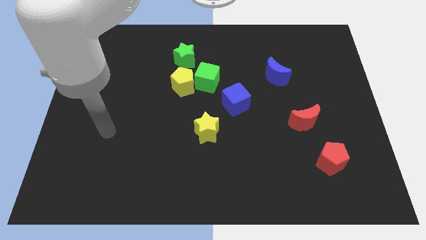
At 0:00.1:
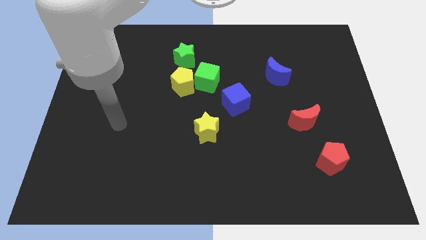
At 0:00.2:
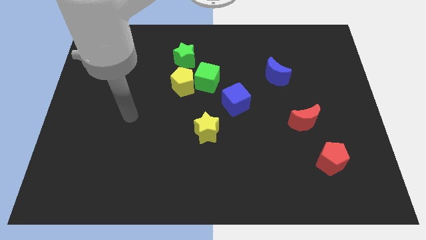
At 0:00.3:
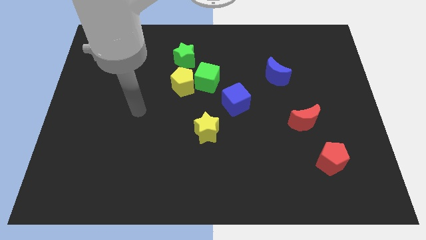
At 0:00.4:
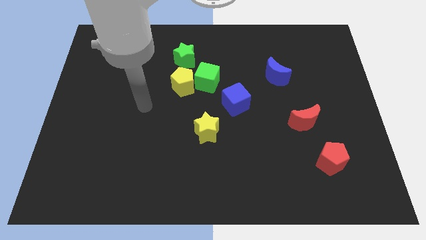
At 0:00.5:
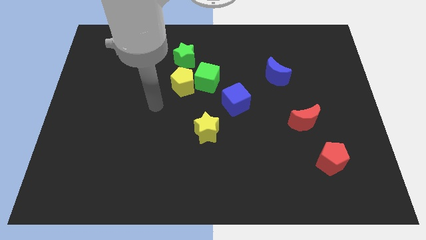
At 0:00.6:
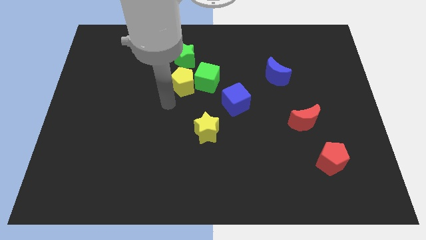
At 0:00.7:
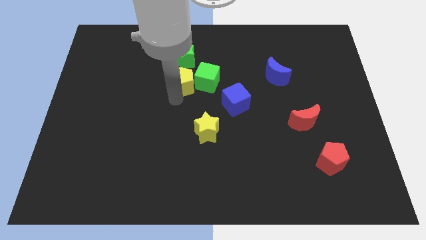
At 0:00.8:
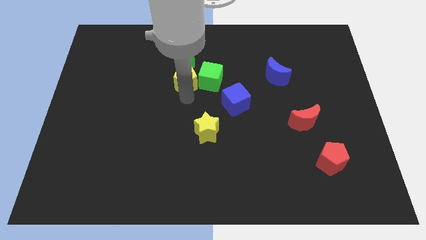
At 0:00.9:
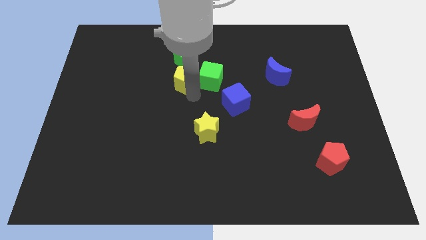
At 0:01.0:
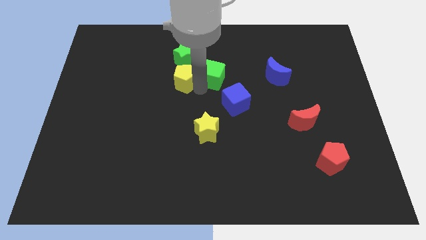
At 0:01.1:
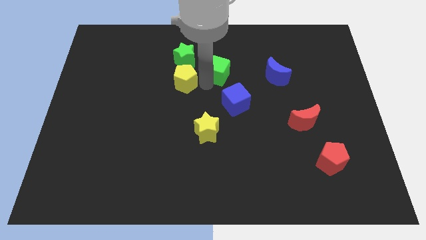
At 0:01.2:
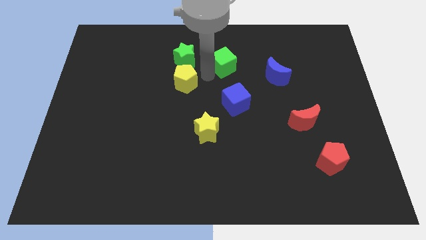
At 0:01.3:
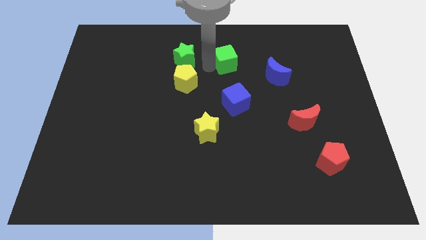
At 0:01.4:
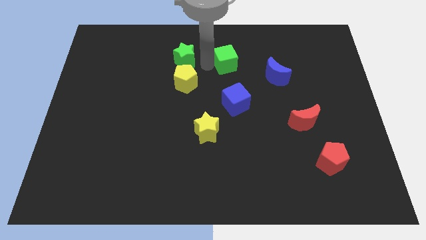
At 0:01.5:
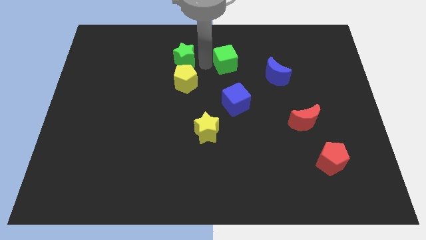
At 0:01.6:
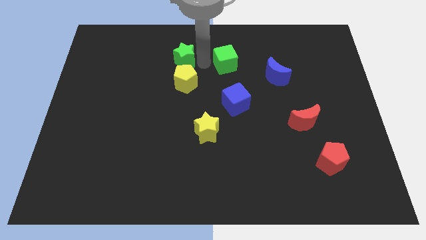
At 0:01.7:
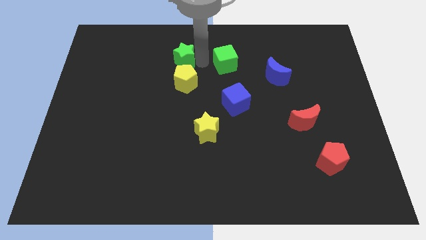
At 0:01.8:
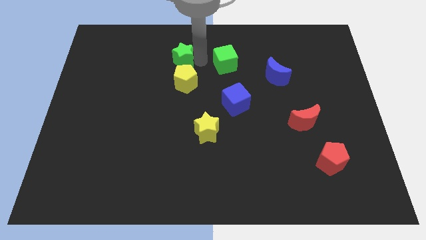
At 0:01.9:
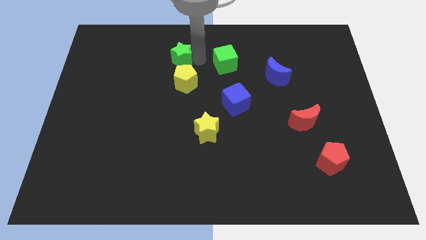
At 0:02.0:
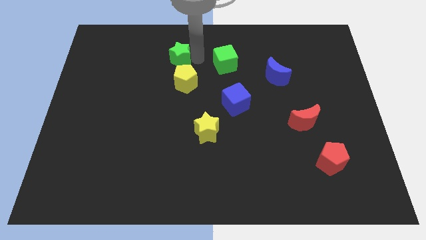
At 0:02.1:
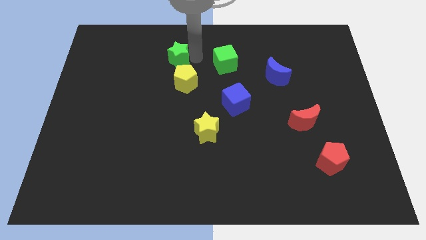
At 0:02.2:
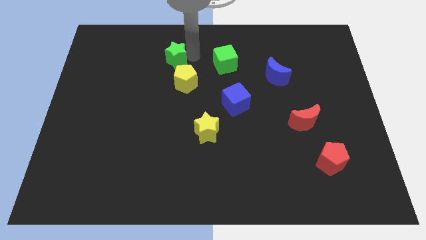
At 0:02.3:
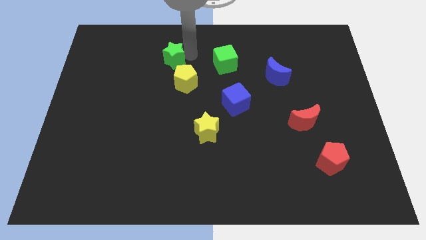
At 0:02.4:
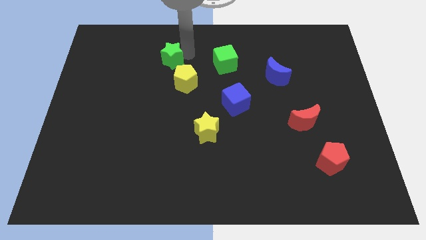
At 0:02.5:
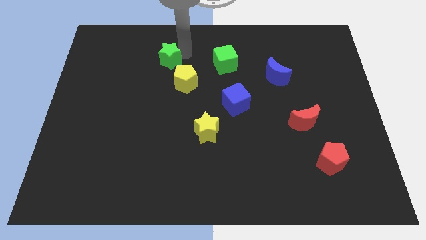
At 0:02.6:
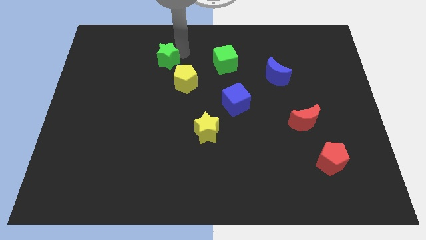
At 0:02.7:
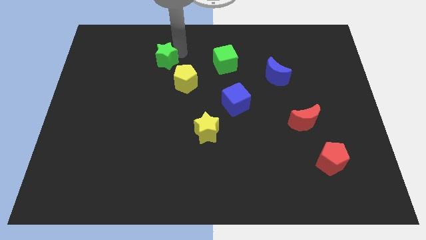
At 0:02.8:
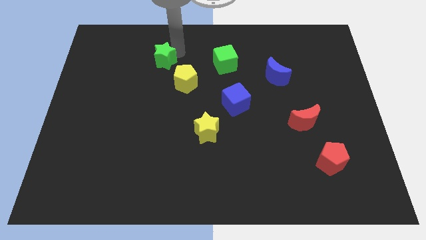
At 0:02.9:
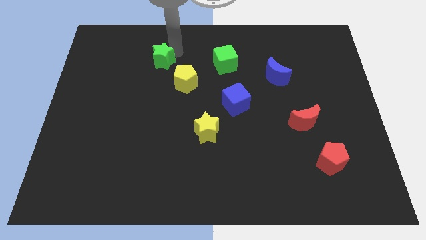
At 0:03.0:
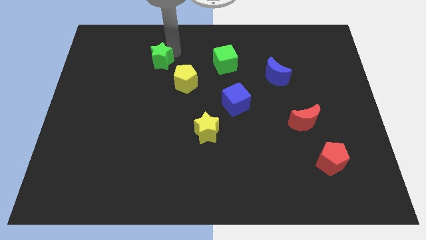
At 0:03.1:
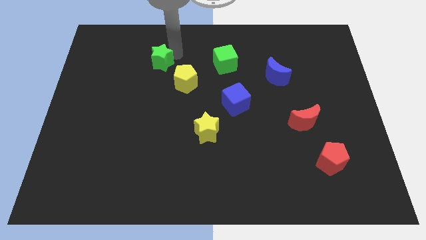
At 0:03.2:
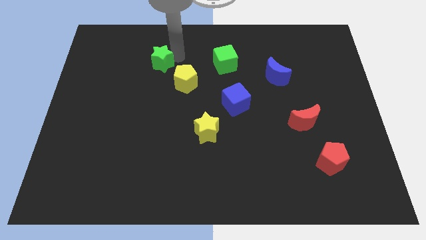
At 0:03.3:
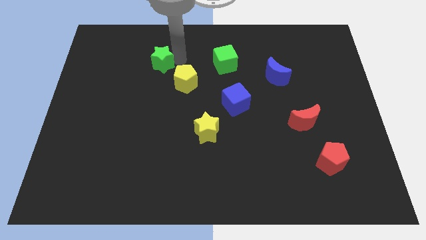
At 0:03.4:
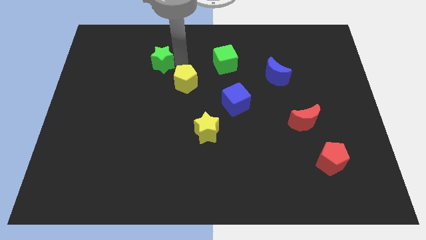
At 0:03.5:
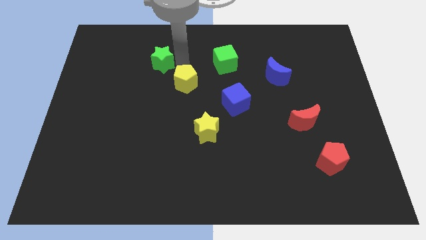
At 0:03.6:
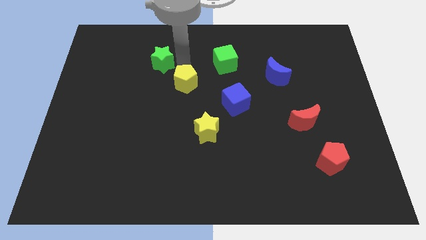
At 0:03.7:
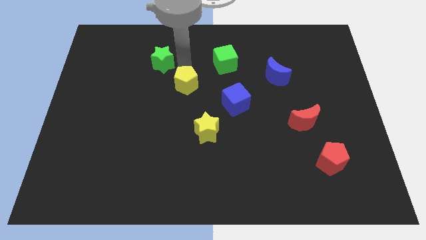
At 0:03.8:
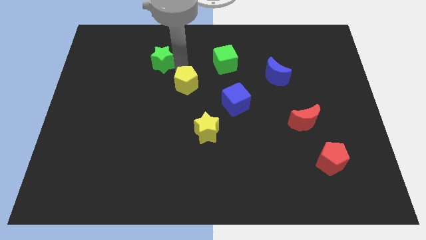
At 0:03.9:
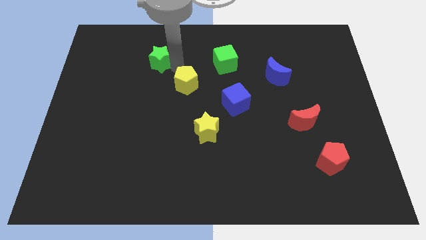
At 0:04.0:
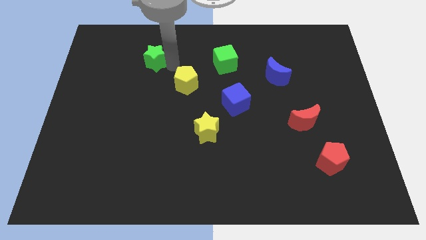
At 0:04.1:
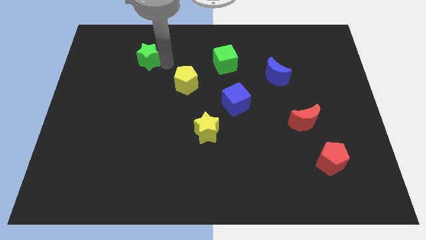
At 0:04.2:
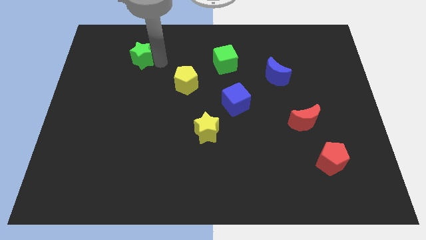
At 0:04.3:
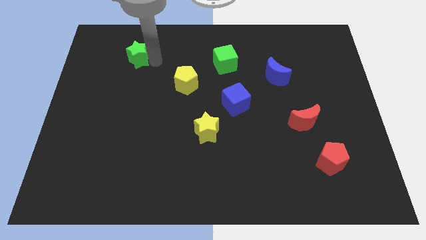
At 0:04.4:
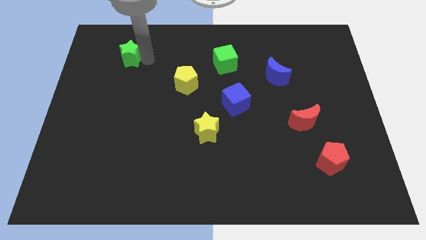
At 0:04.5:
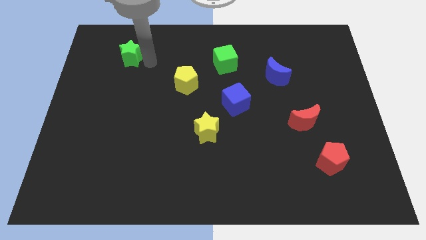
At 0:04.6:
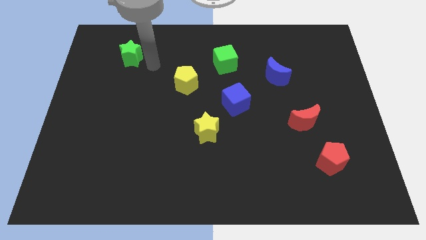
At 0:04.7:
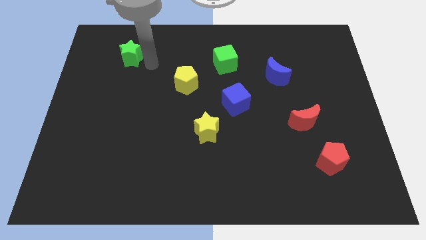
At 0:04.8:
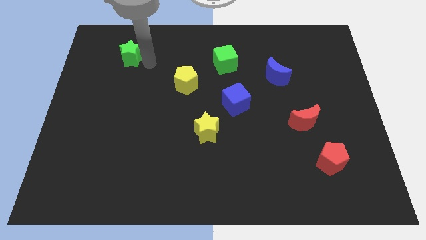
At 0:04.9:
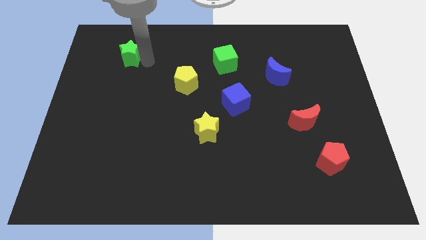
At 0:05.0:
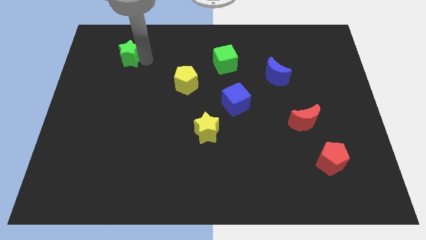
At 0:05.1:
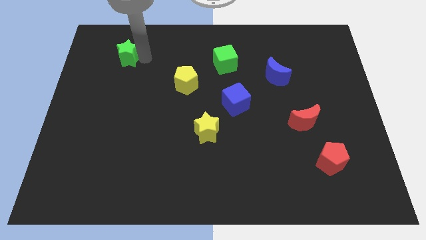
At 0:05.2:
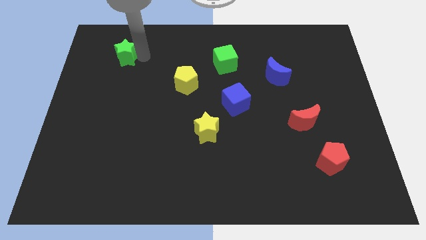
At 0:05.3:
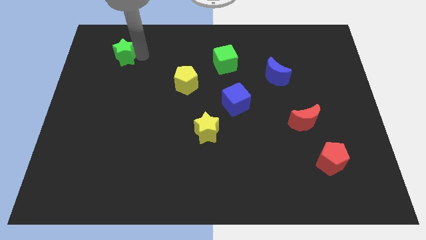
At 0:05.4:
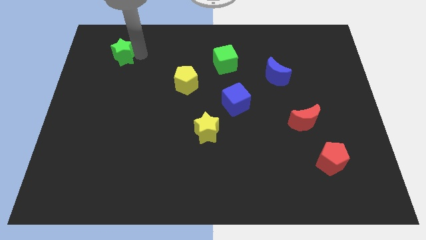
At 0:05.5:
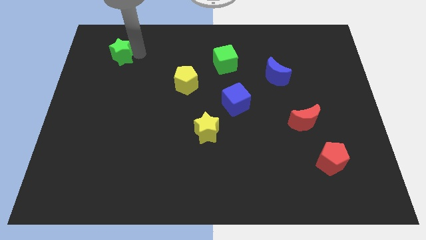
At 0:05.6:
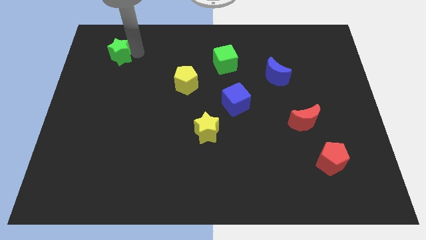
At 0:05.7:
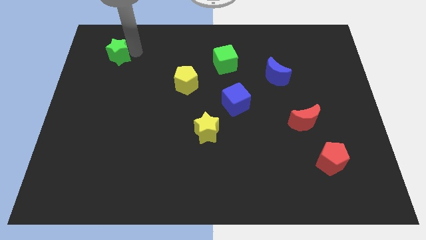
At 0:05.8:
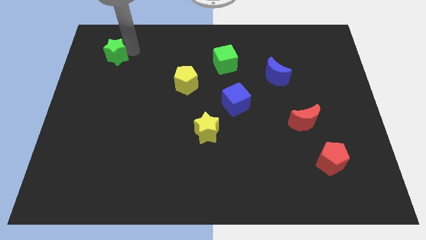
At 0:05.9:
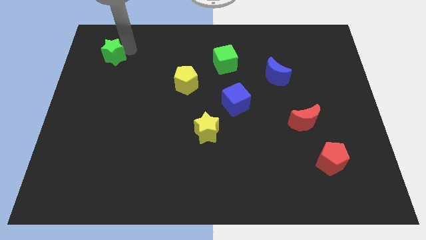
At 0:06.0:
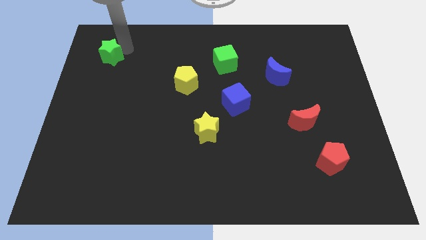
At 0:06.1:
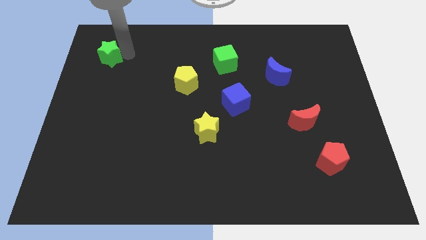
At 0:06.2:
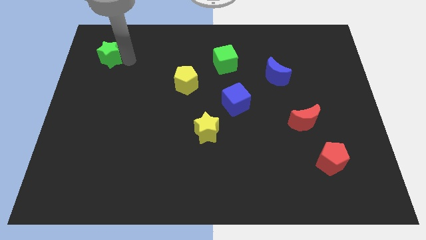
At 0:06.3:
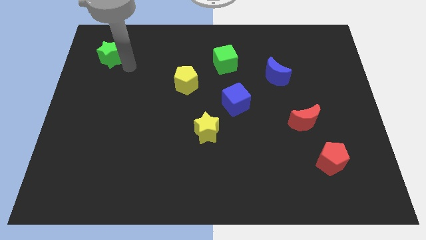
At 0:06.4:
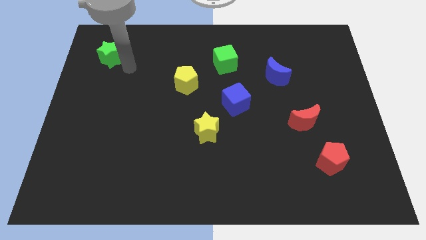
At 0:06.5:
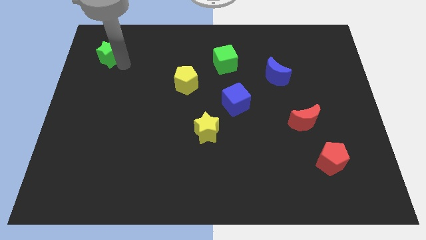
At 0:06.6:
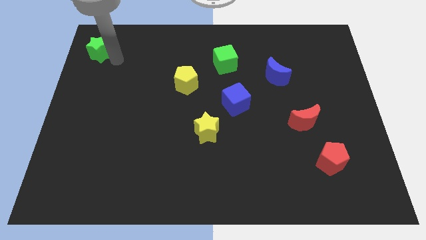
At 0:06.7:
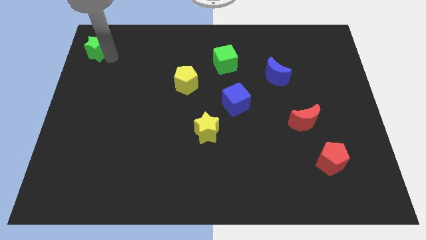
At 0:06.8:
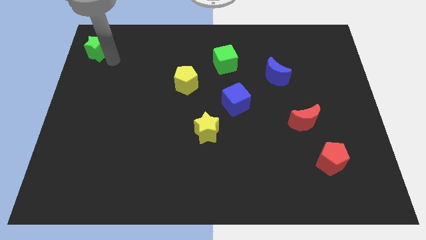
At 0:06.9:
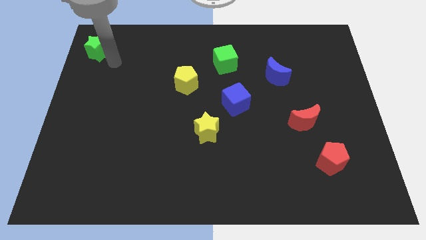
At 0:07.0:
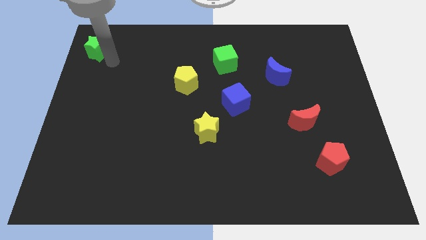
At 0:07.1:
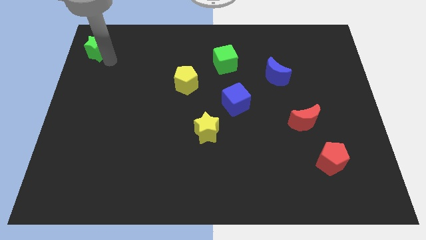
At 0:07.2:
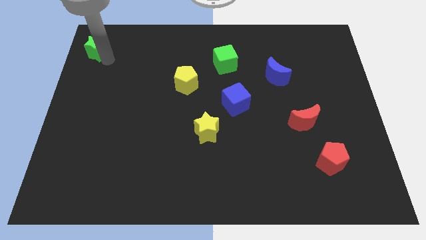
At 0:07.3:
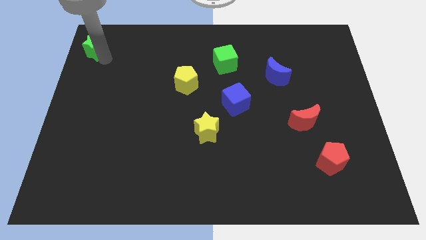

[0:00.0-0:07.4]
slide the green star to the top left
